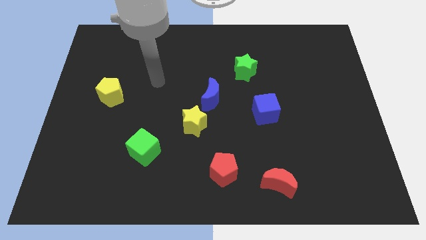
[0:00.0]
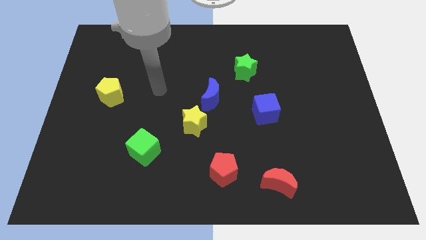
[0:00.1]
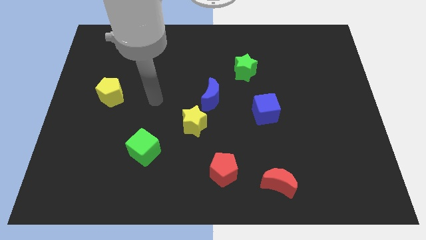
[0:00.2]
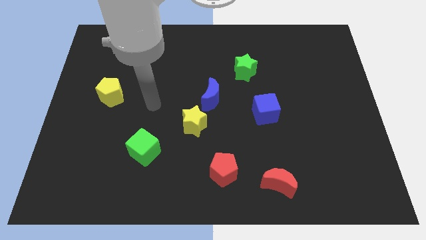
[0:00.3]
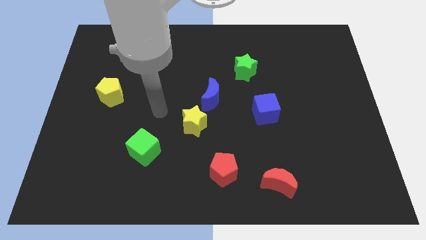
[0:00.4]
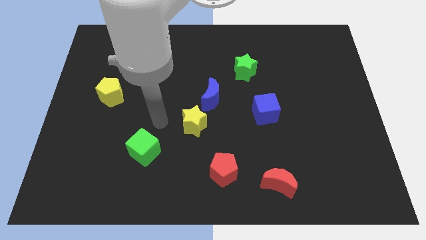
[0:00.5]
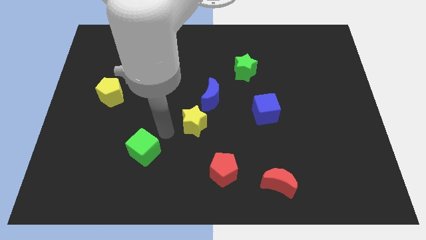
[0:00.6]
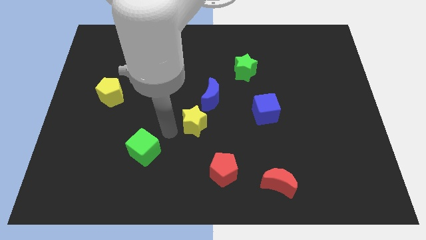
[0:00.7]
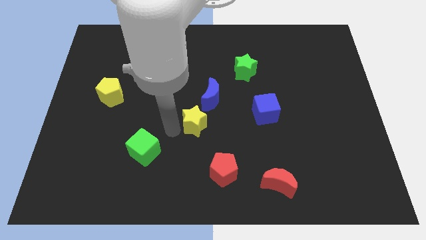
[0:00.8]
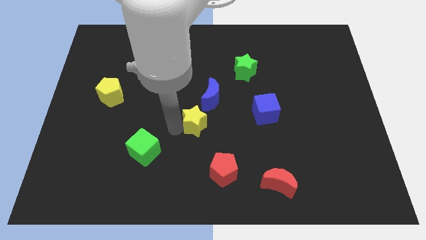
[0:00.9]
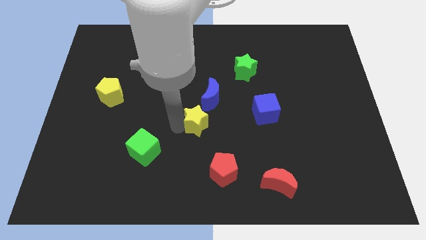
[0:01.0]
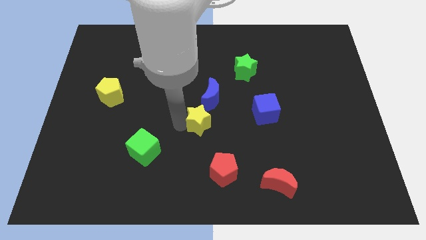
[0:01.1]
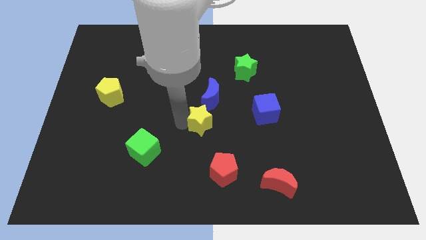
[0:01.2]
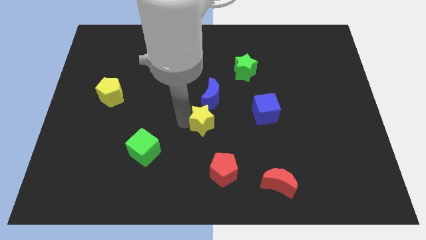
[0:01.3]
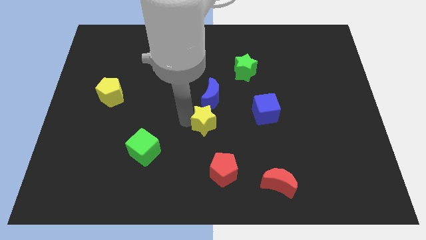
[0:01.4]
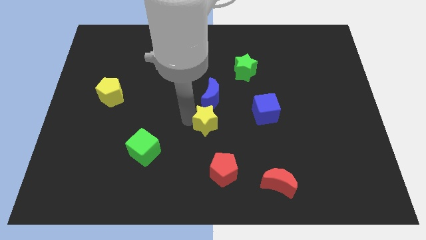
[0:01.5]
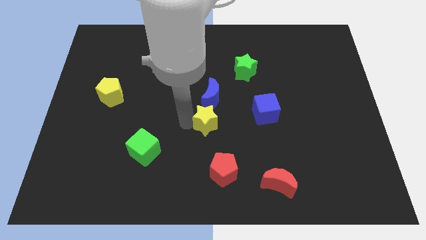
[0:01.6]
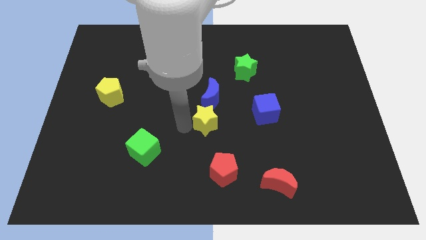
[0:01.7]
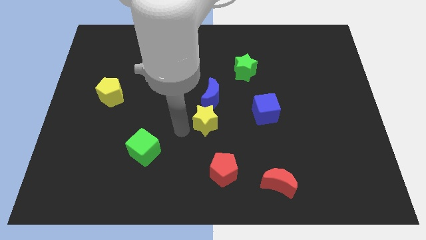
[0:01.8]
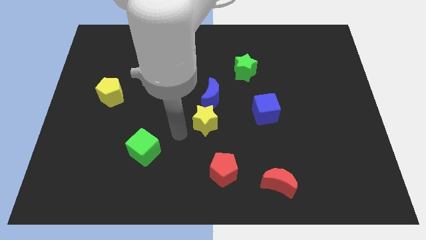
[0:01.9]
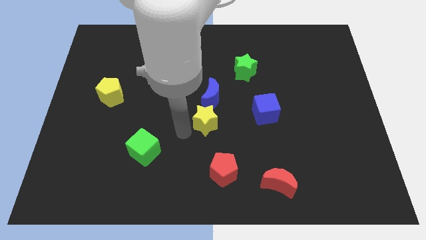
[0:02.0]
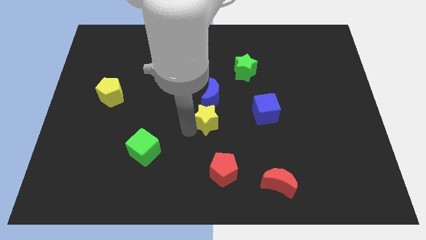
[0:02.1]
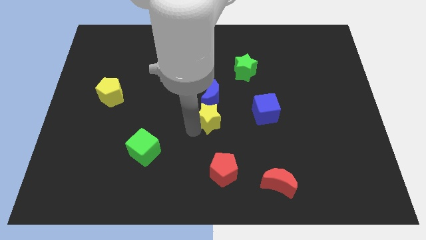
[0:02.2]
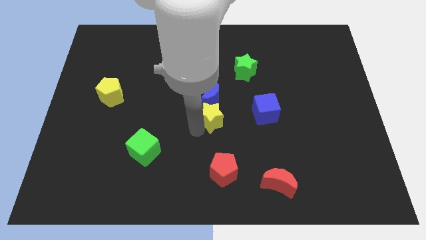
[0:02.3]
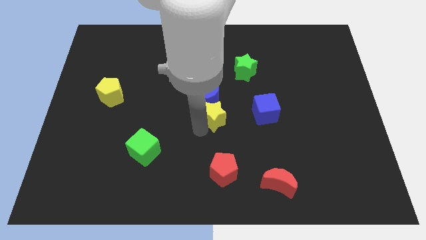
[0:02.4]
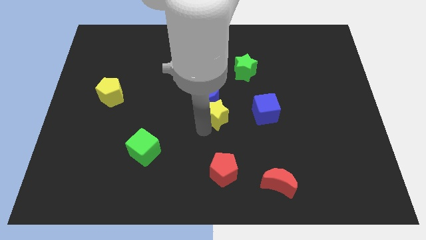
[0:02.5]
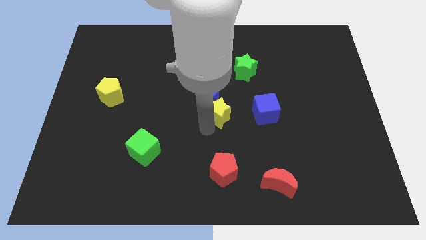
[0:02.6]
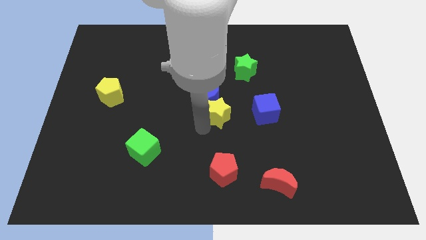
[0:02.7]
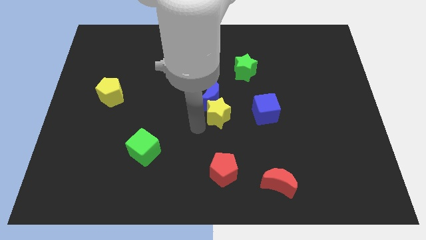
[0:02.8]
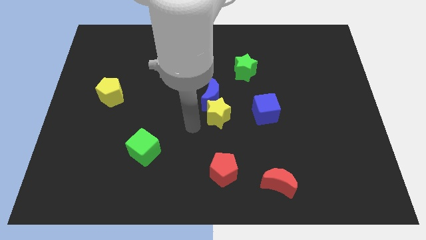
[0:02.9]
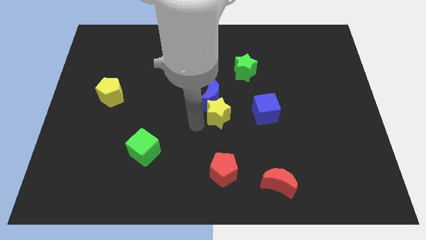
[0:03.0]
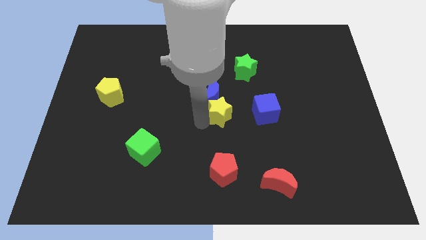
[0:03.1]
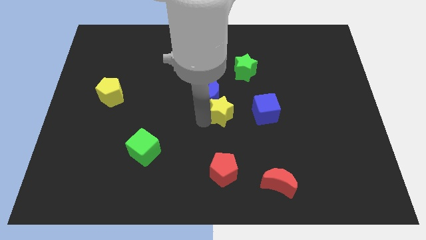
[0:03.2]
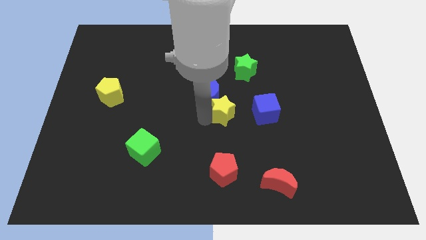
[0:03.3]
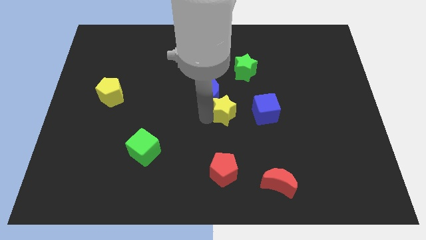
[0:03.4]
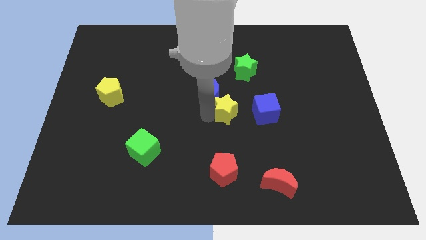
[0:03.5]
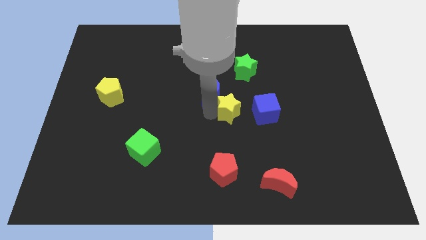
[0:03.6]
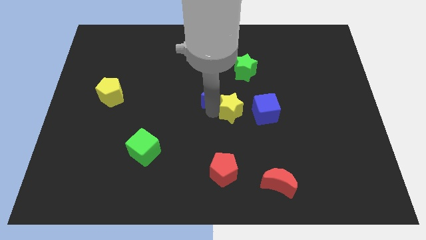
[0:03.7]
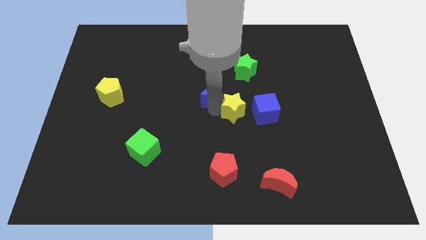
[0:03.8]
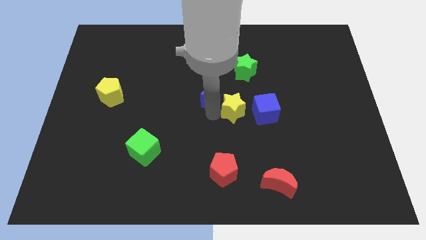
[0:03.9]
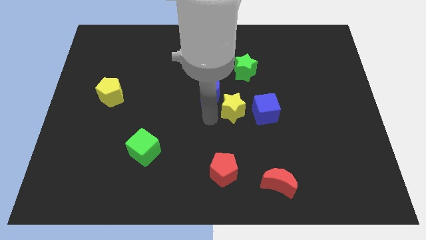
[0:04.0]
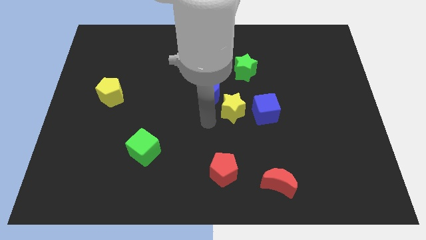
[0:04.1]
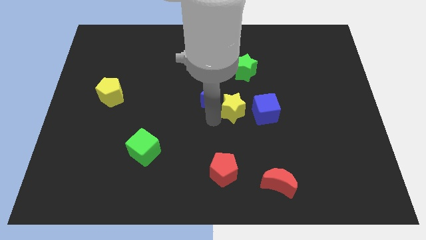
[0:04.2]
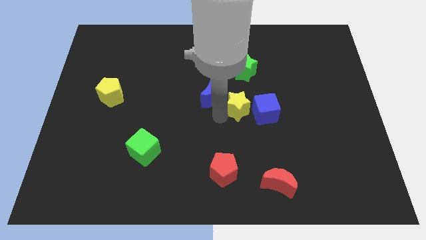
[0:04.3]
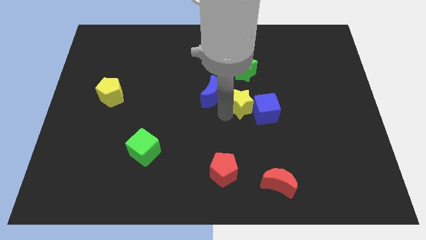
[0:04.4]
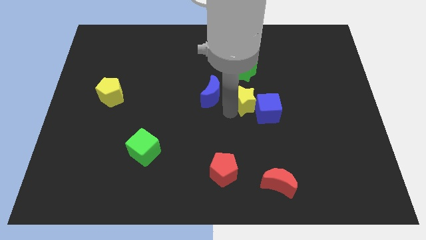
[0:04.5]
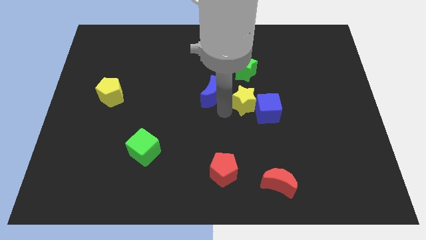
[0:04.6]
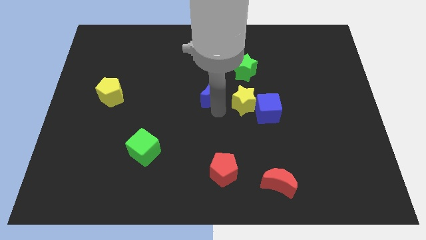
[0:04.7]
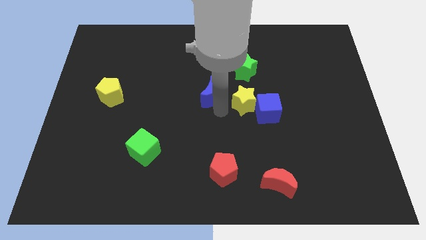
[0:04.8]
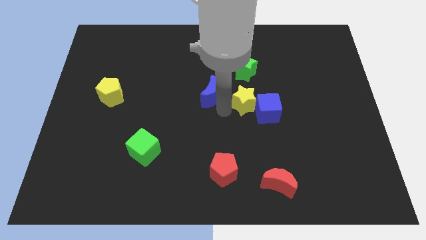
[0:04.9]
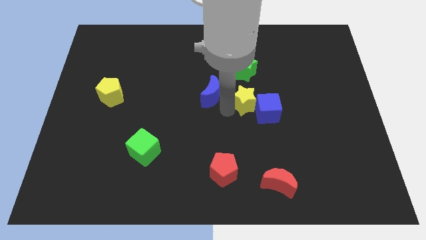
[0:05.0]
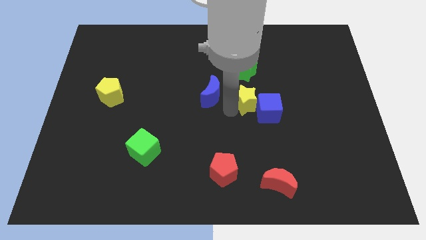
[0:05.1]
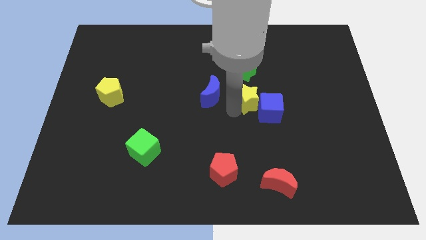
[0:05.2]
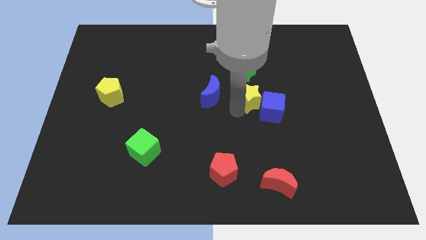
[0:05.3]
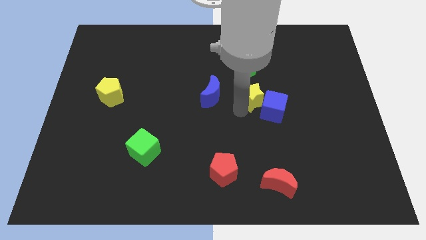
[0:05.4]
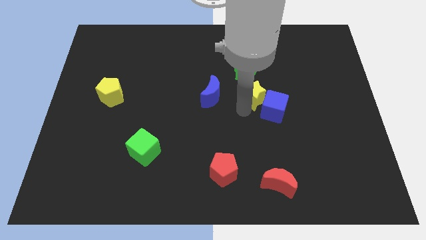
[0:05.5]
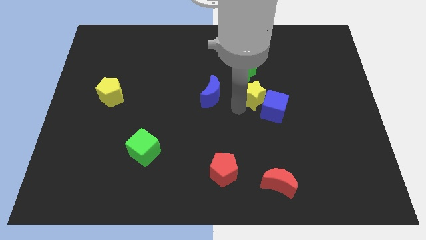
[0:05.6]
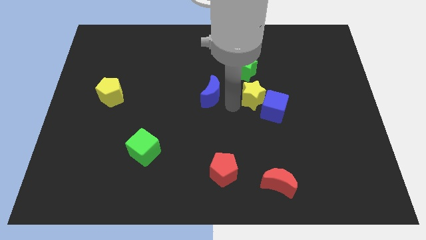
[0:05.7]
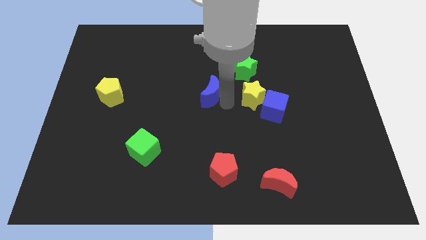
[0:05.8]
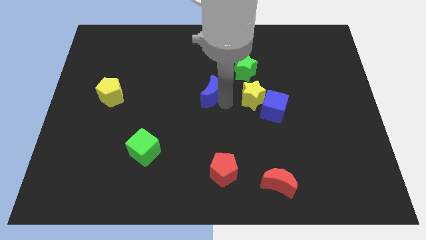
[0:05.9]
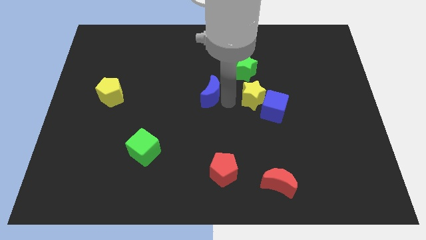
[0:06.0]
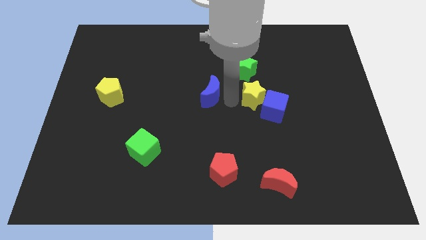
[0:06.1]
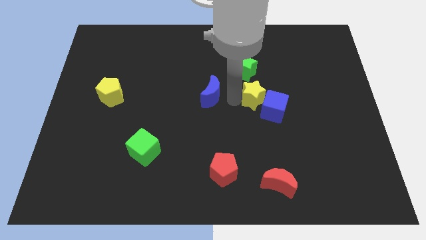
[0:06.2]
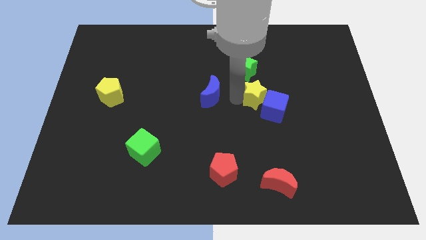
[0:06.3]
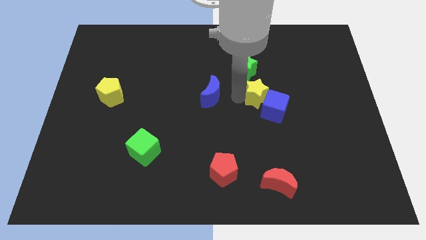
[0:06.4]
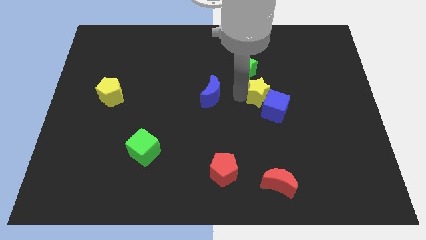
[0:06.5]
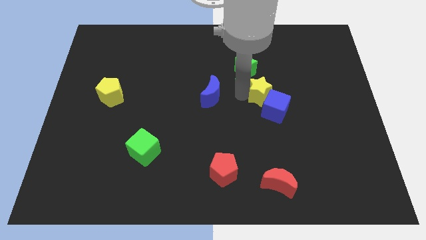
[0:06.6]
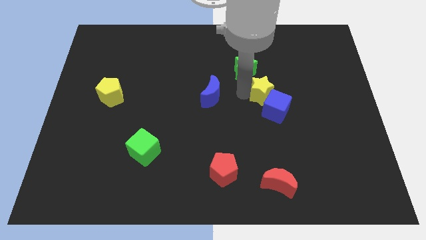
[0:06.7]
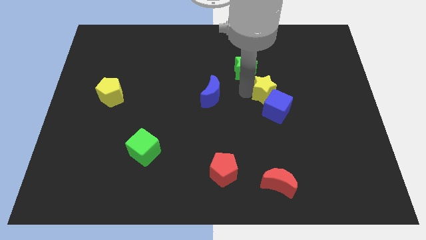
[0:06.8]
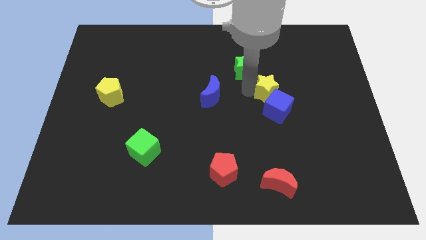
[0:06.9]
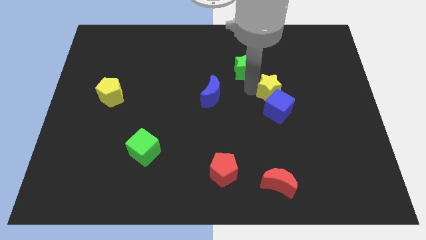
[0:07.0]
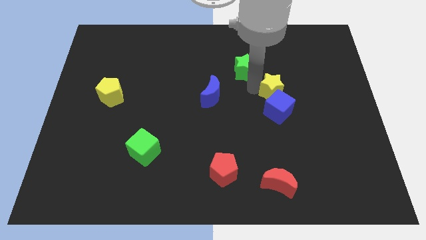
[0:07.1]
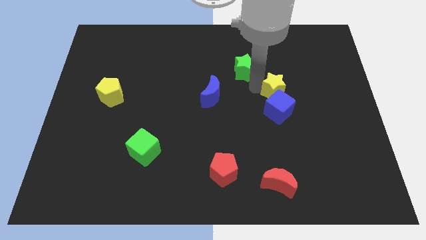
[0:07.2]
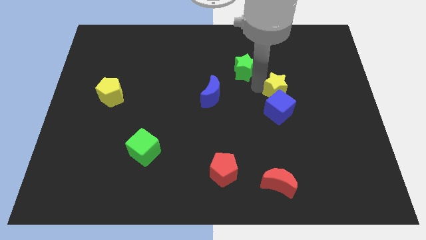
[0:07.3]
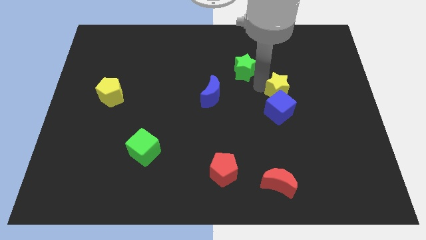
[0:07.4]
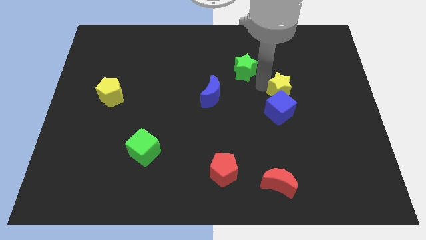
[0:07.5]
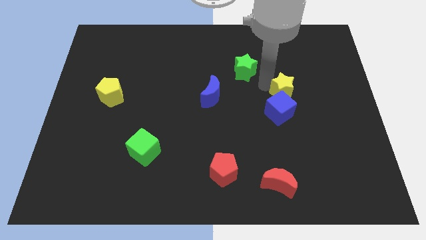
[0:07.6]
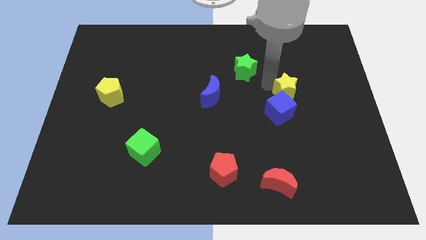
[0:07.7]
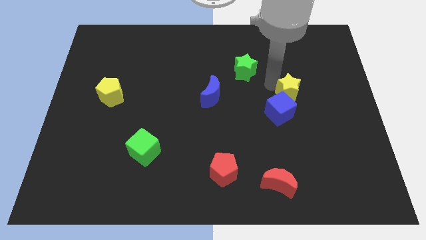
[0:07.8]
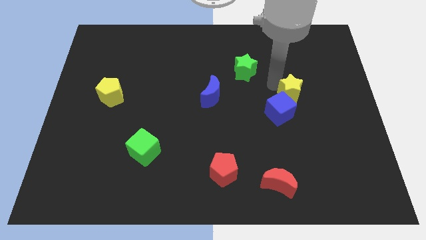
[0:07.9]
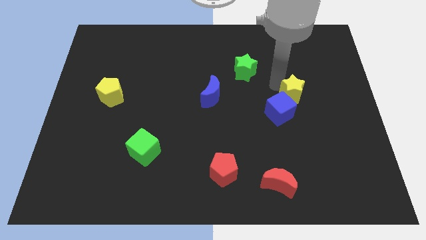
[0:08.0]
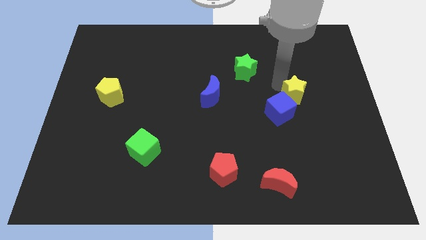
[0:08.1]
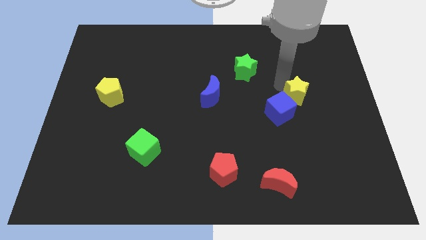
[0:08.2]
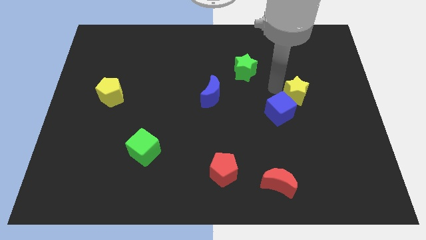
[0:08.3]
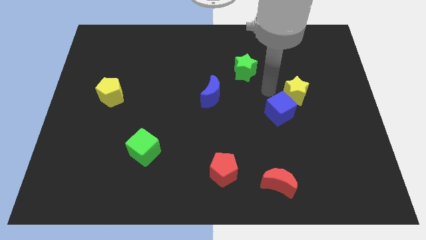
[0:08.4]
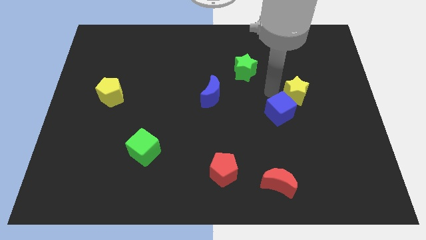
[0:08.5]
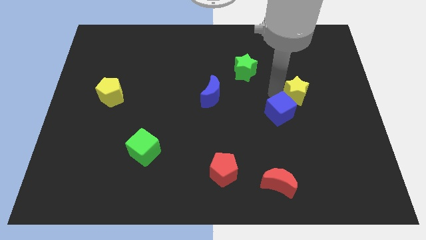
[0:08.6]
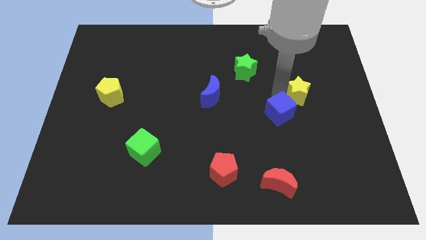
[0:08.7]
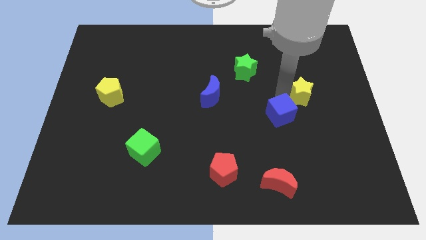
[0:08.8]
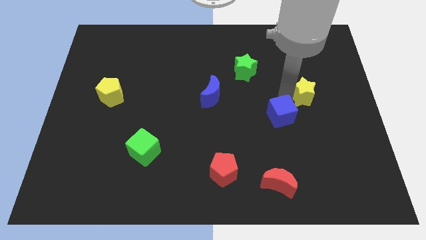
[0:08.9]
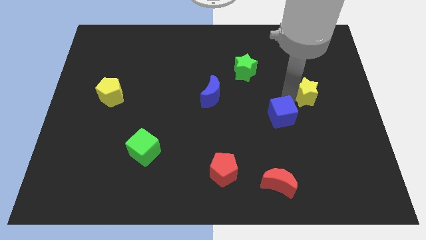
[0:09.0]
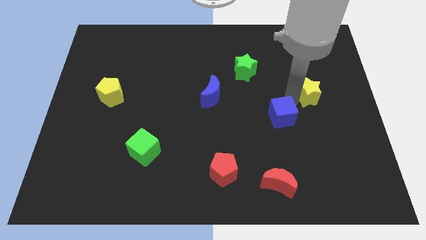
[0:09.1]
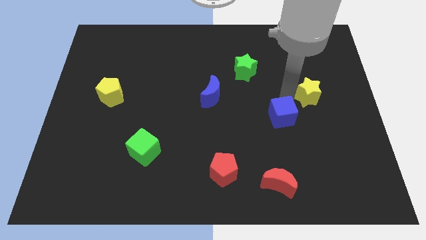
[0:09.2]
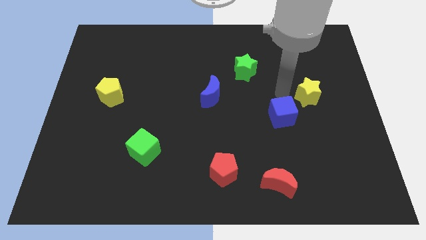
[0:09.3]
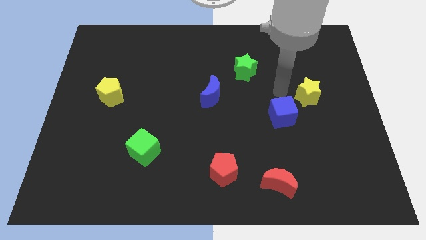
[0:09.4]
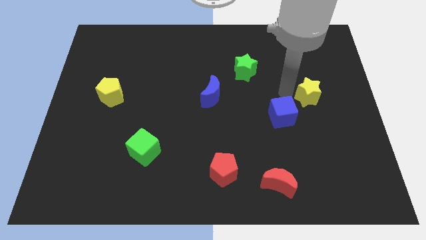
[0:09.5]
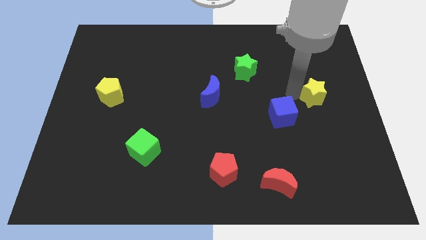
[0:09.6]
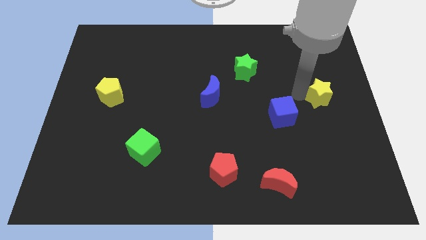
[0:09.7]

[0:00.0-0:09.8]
move the yellow star to the center right
